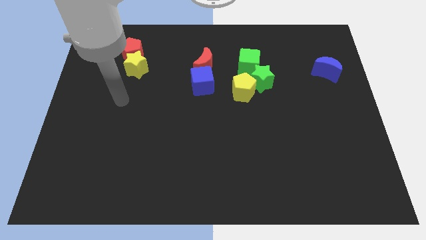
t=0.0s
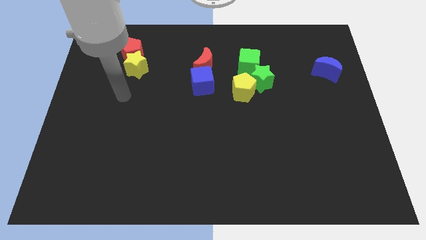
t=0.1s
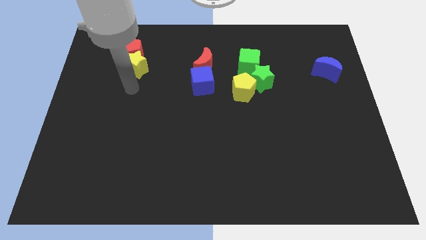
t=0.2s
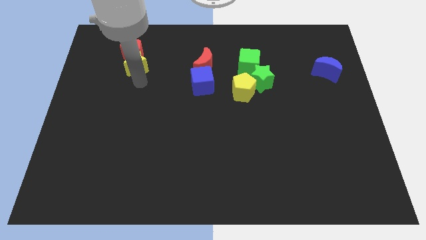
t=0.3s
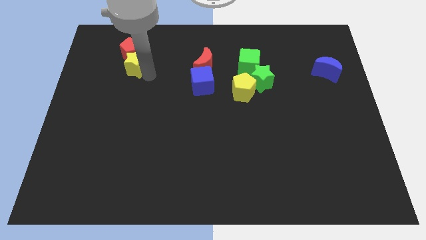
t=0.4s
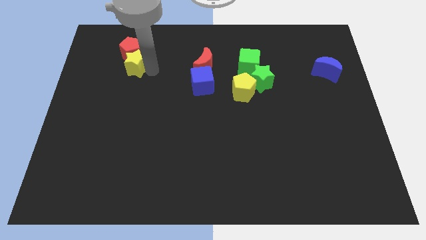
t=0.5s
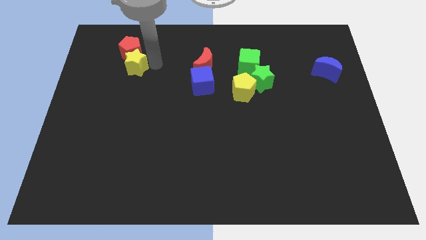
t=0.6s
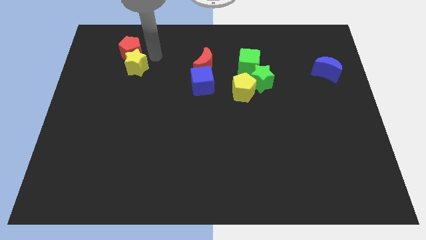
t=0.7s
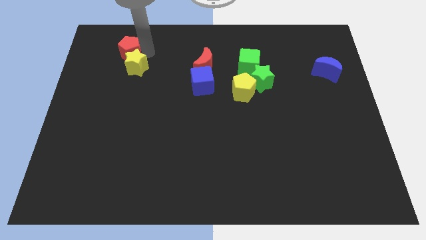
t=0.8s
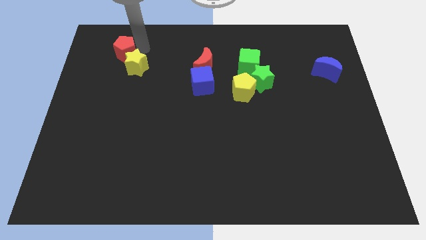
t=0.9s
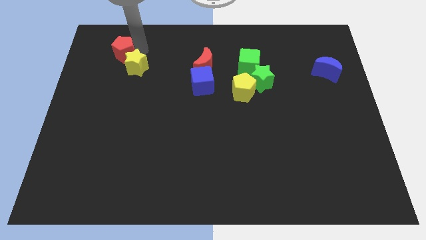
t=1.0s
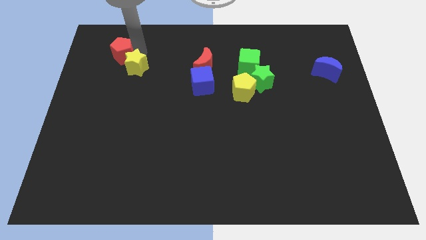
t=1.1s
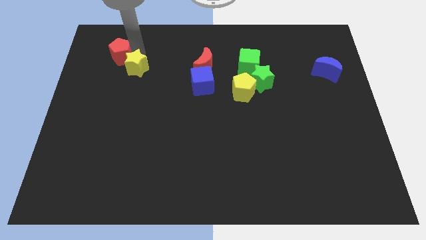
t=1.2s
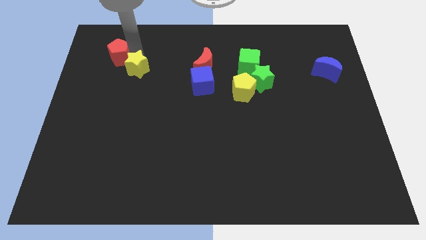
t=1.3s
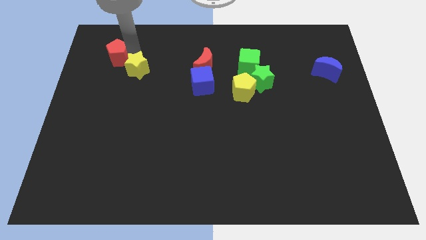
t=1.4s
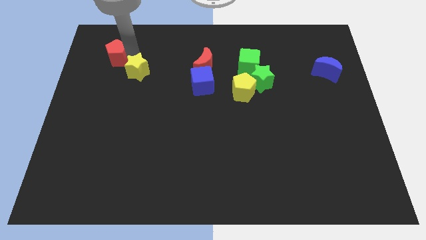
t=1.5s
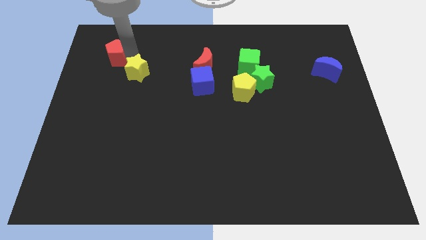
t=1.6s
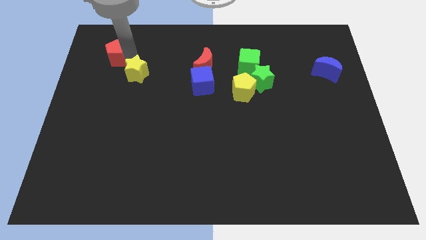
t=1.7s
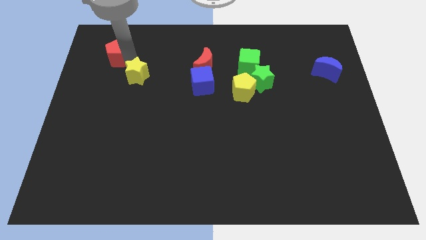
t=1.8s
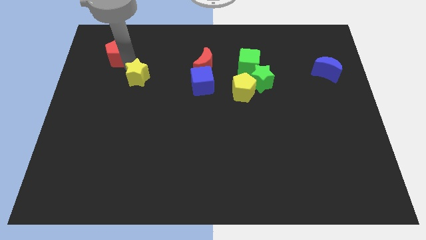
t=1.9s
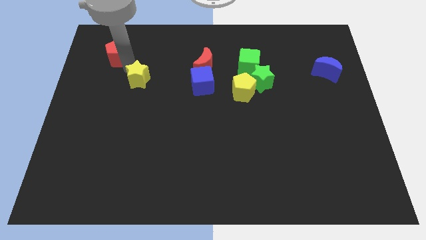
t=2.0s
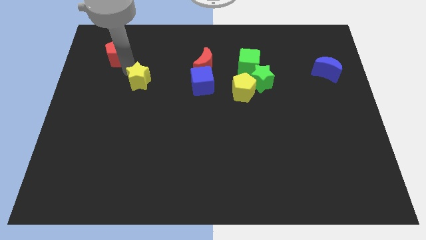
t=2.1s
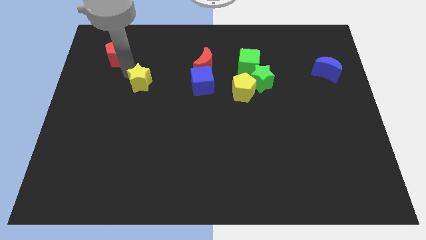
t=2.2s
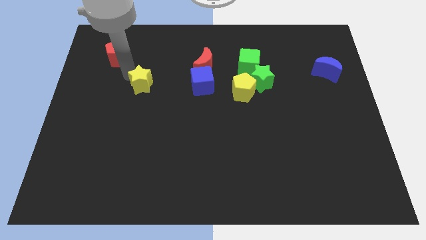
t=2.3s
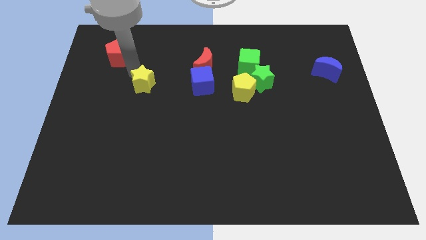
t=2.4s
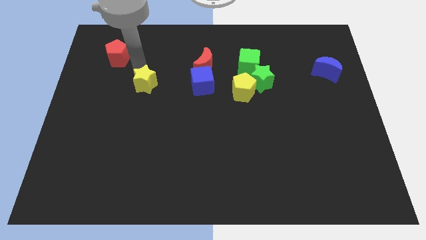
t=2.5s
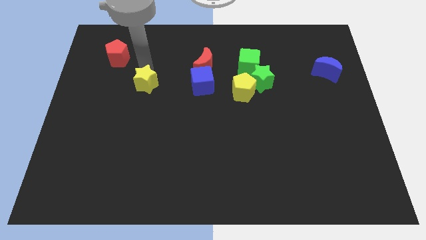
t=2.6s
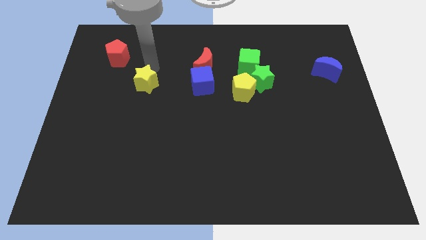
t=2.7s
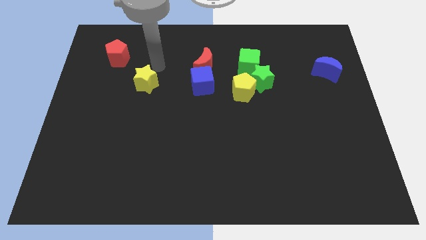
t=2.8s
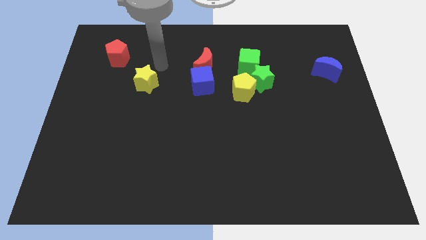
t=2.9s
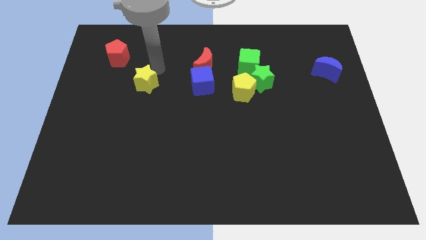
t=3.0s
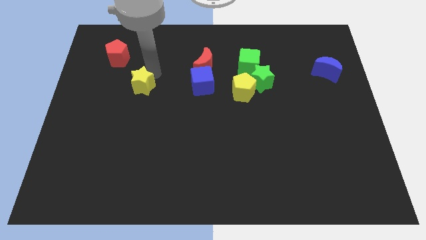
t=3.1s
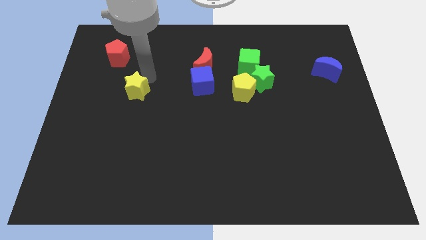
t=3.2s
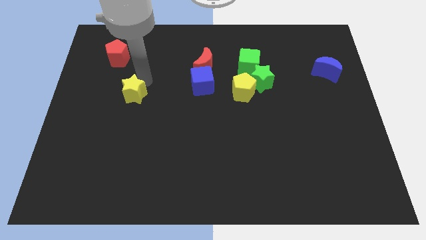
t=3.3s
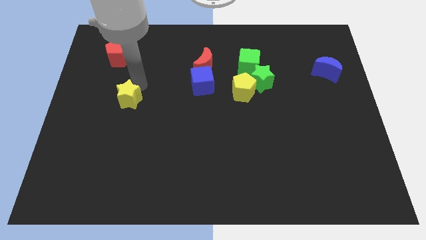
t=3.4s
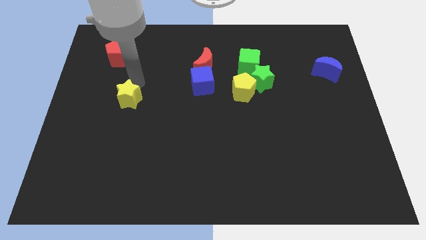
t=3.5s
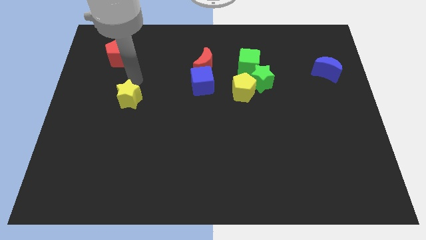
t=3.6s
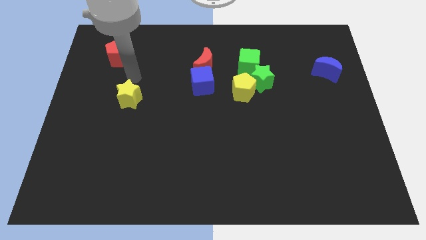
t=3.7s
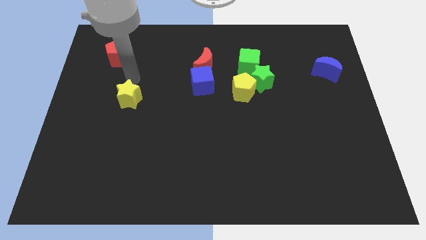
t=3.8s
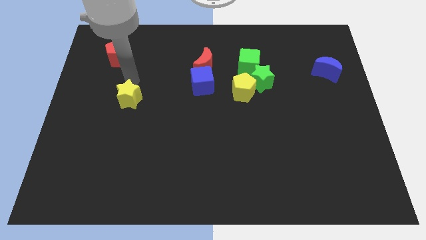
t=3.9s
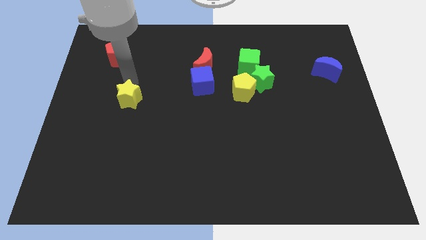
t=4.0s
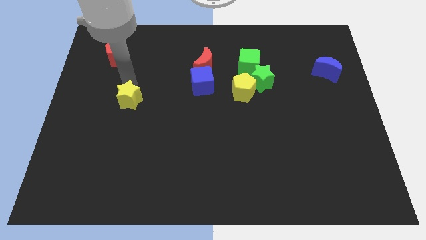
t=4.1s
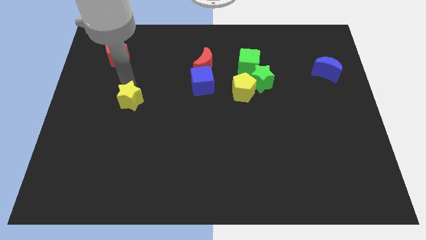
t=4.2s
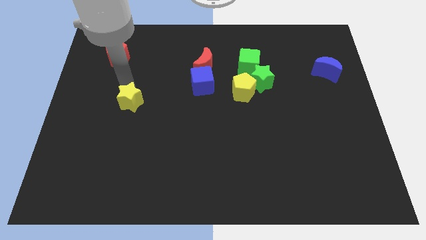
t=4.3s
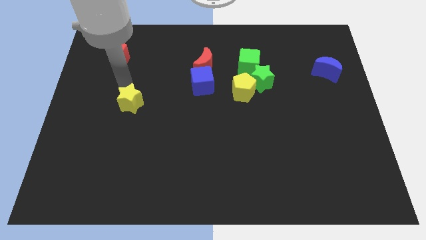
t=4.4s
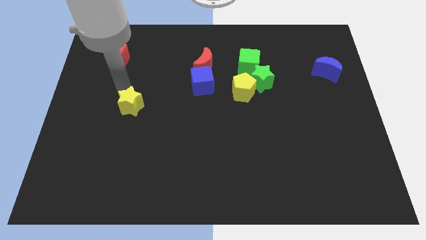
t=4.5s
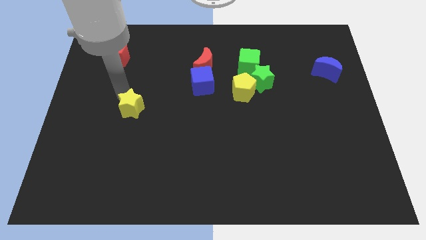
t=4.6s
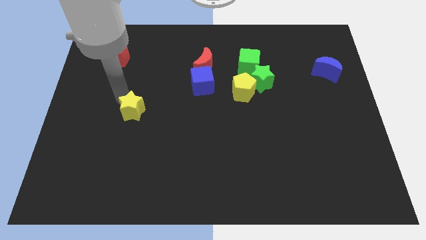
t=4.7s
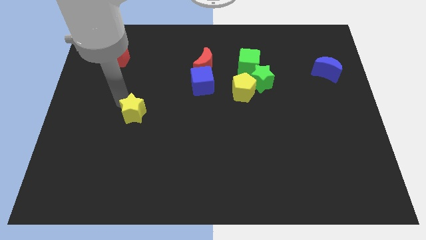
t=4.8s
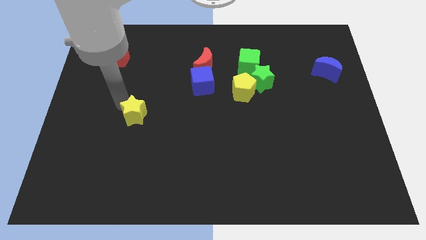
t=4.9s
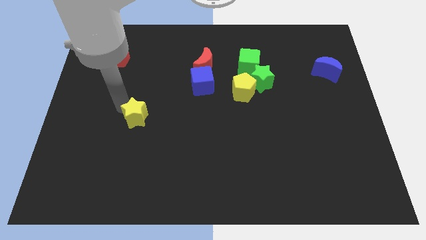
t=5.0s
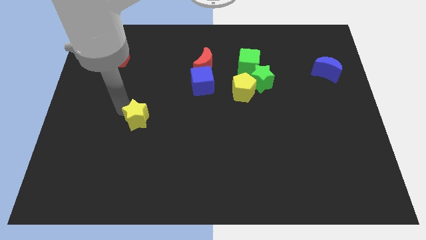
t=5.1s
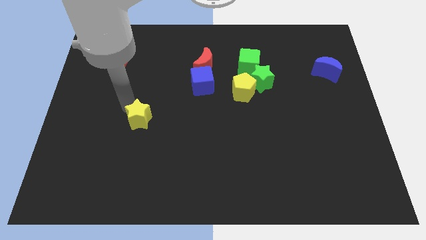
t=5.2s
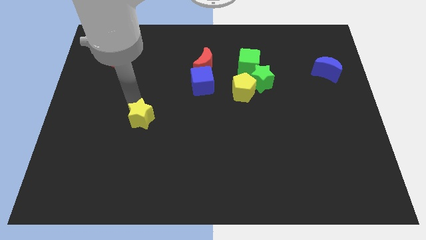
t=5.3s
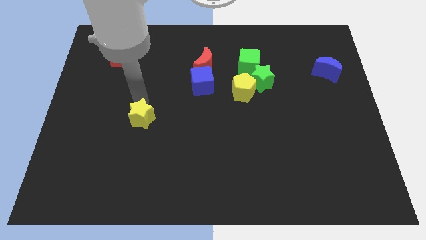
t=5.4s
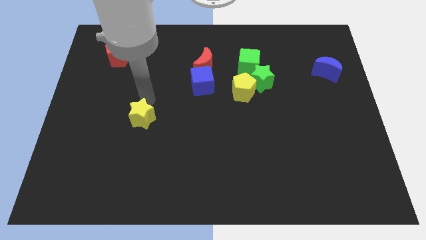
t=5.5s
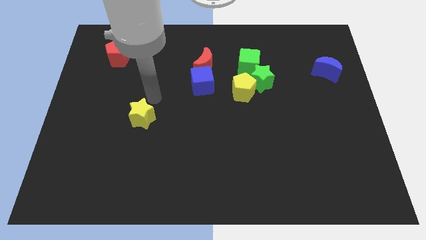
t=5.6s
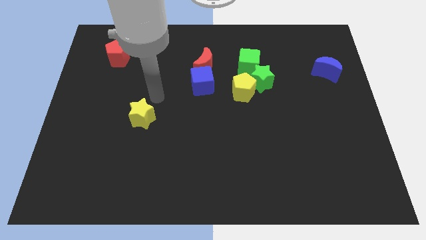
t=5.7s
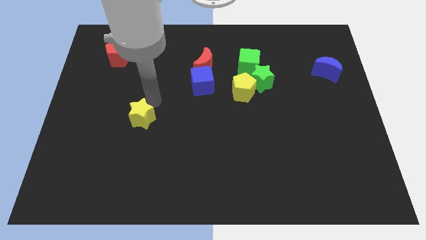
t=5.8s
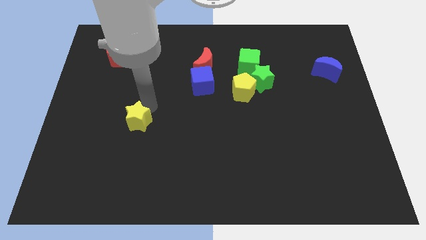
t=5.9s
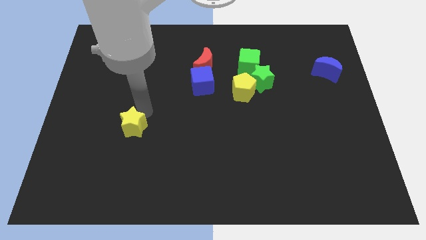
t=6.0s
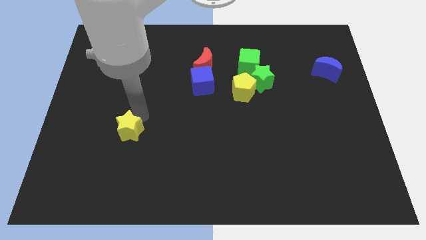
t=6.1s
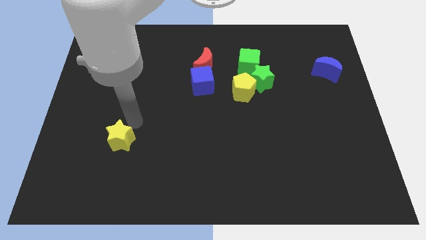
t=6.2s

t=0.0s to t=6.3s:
move the yellow star downwards

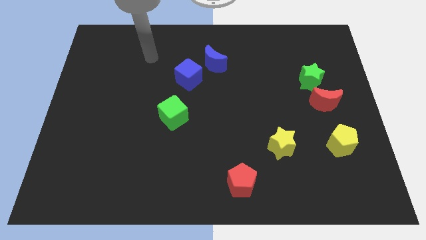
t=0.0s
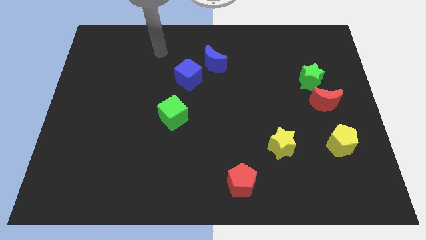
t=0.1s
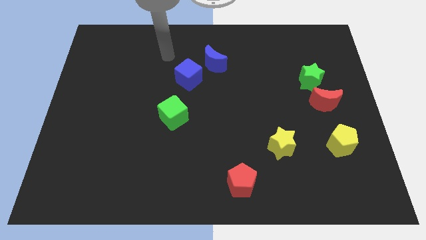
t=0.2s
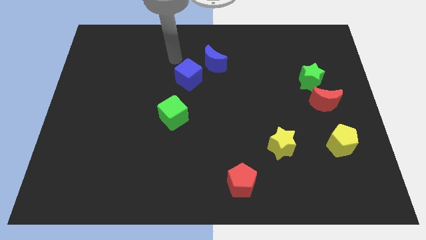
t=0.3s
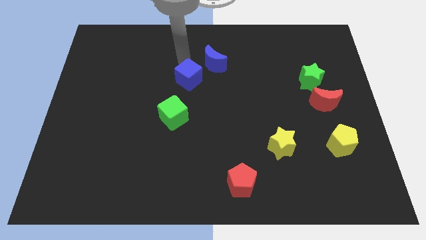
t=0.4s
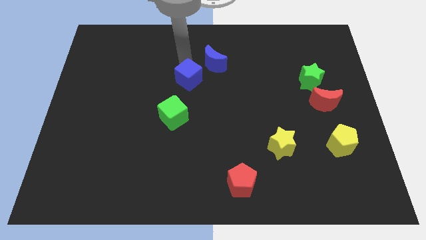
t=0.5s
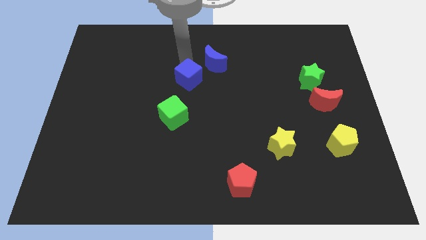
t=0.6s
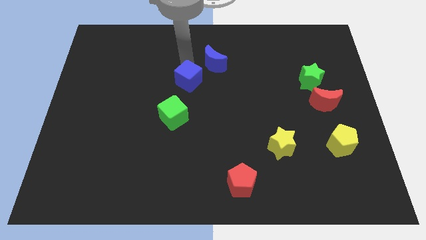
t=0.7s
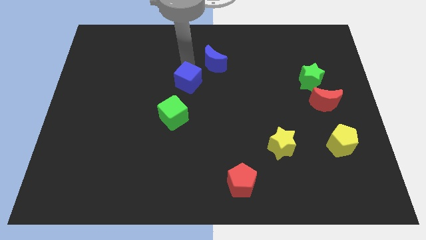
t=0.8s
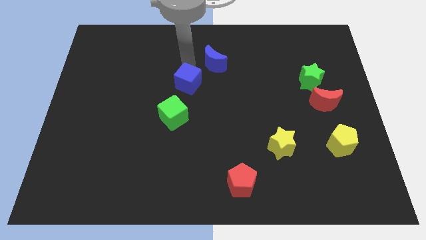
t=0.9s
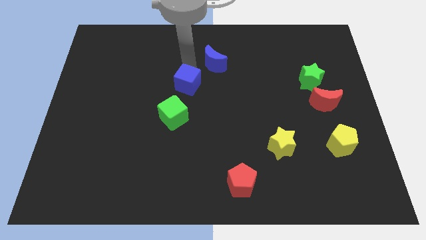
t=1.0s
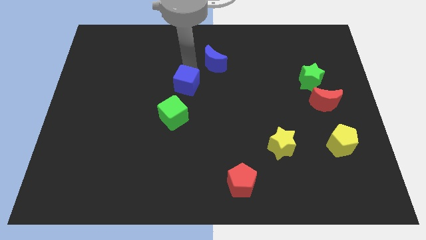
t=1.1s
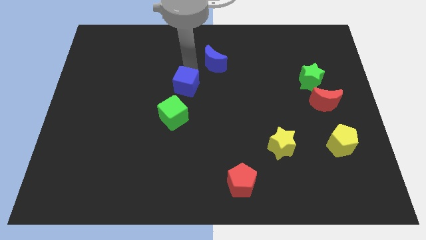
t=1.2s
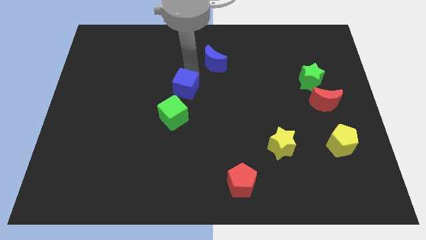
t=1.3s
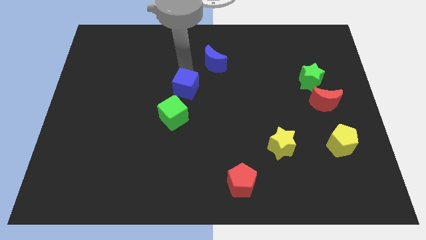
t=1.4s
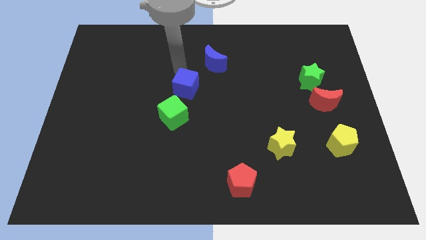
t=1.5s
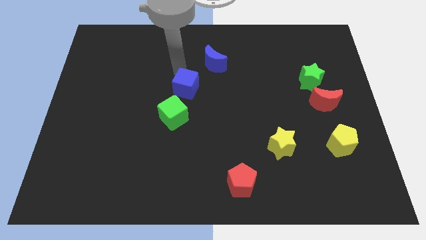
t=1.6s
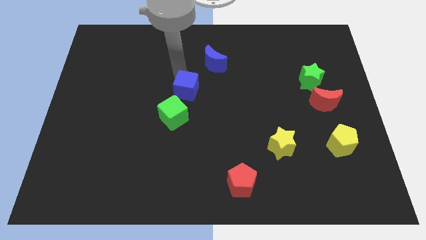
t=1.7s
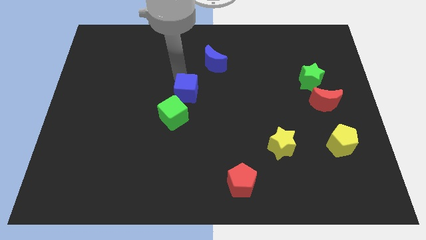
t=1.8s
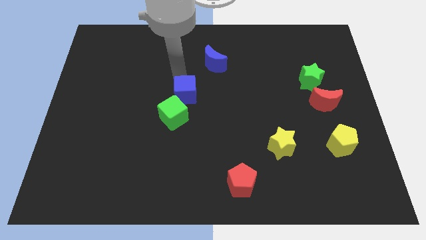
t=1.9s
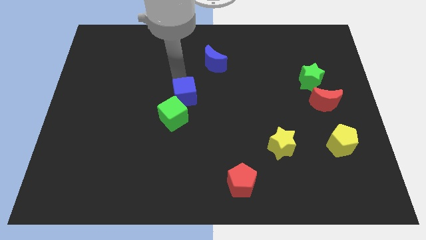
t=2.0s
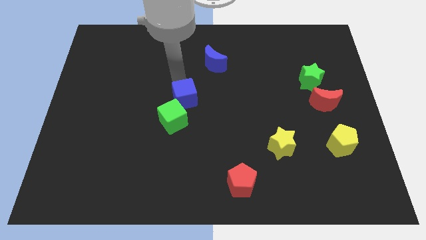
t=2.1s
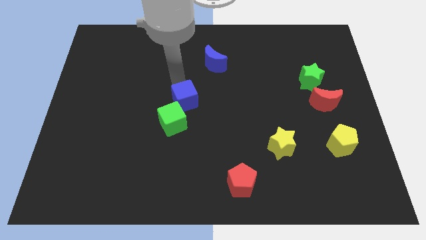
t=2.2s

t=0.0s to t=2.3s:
move the blue cube down slightly
